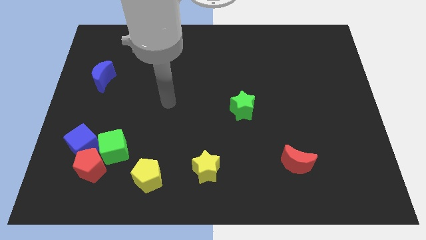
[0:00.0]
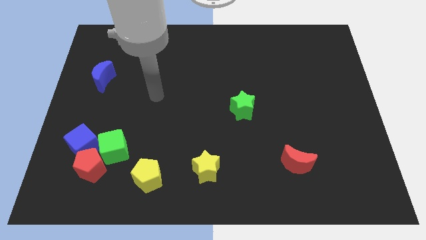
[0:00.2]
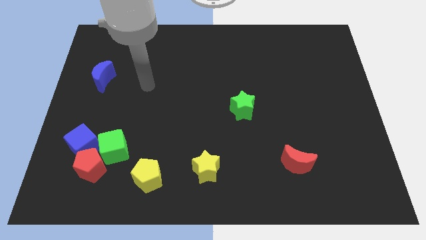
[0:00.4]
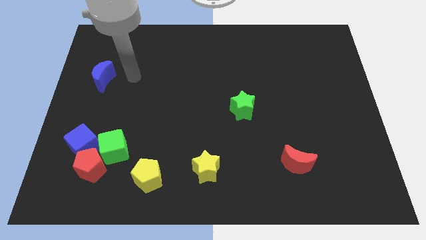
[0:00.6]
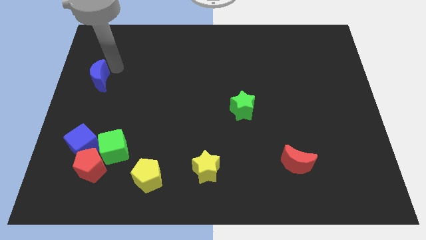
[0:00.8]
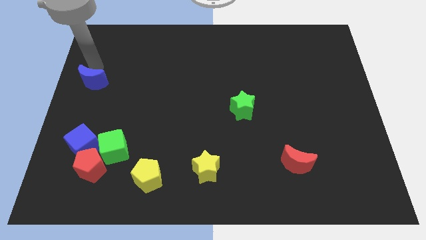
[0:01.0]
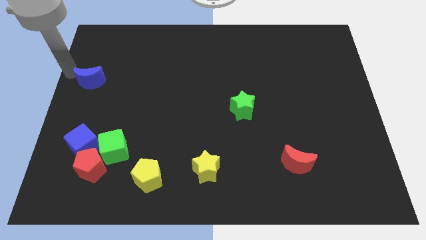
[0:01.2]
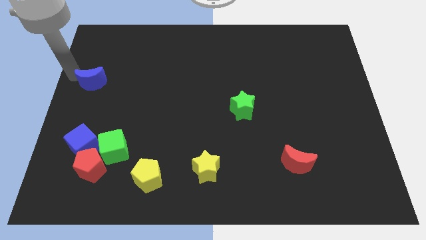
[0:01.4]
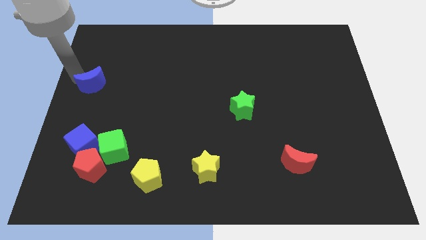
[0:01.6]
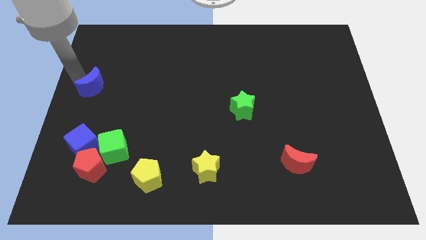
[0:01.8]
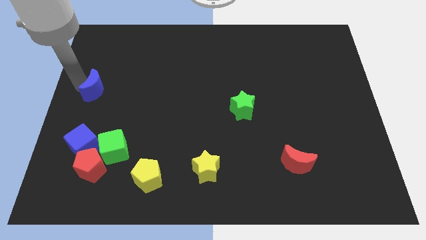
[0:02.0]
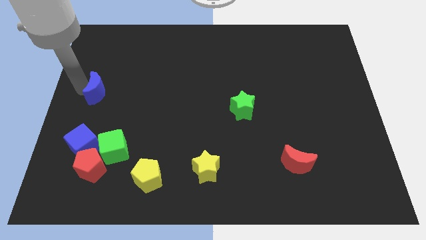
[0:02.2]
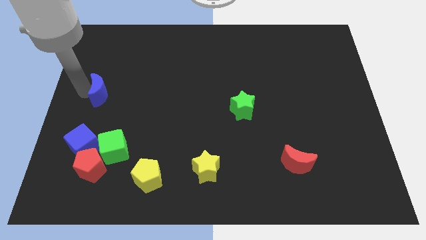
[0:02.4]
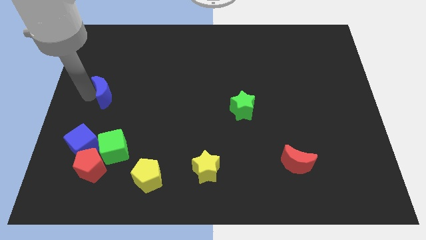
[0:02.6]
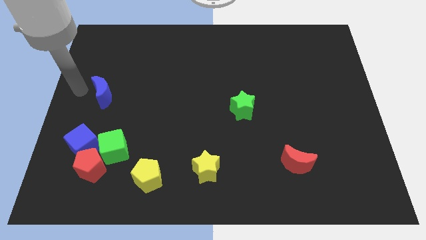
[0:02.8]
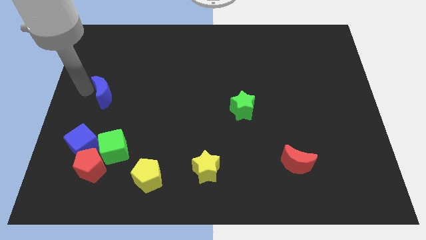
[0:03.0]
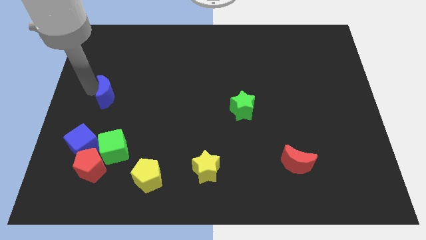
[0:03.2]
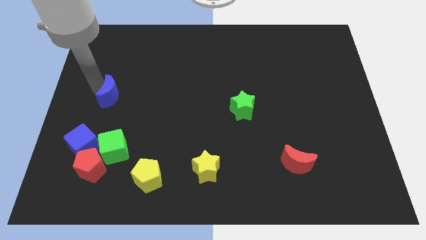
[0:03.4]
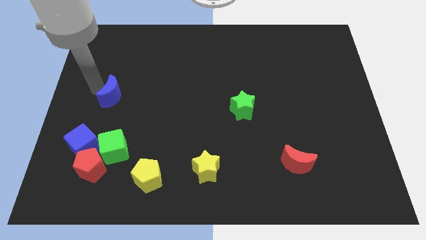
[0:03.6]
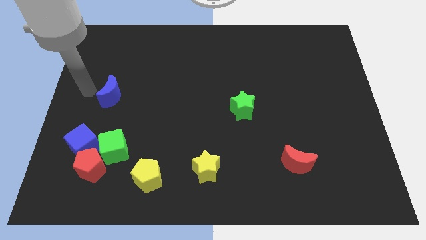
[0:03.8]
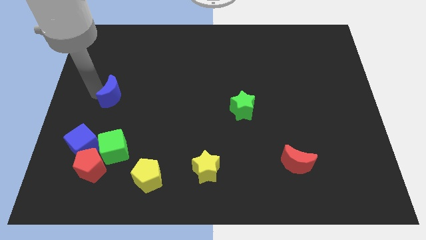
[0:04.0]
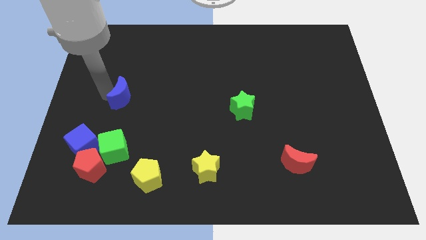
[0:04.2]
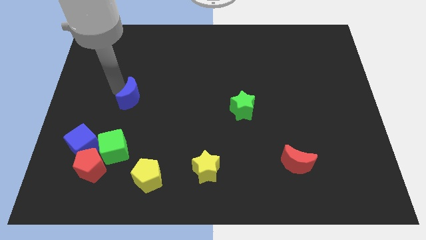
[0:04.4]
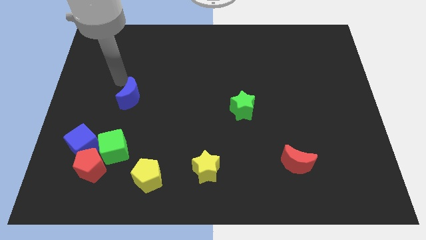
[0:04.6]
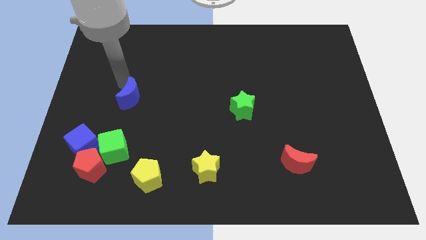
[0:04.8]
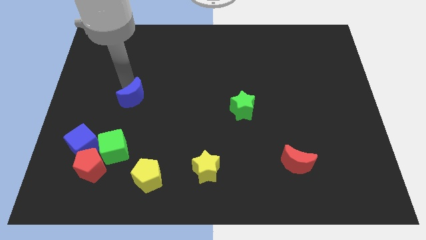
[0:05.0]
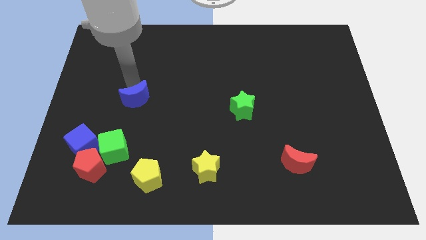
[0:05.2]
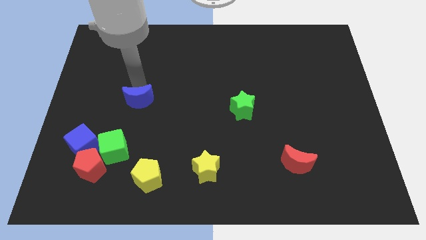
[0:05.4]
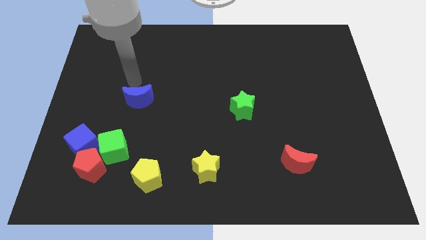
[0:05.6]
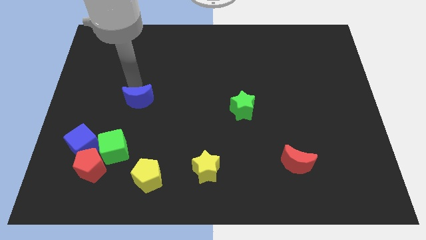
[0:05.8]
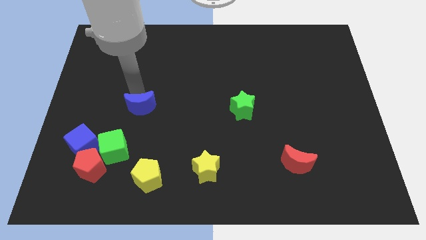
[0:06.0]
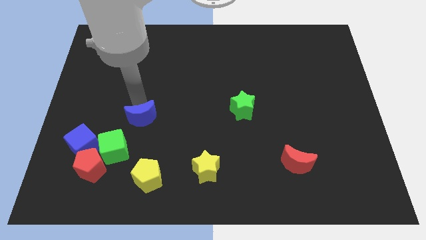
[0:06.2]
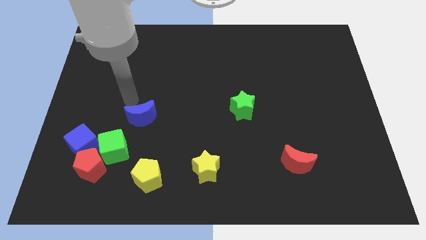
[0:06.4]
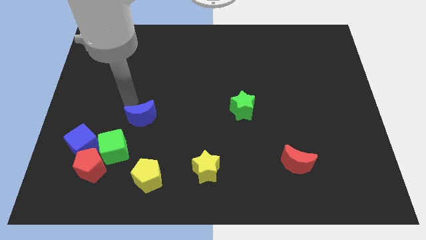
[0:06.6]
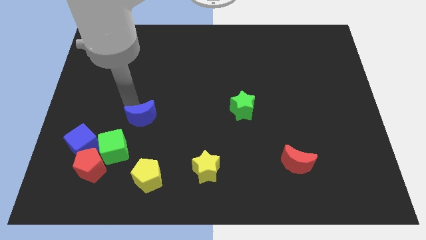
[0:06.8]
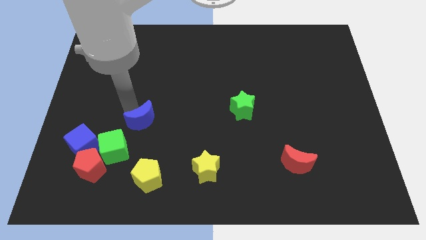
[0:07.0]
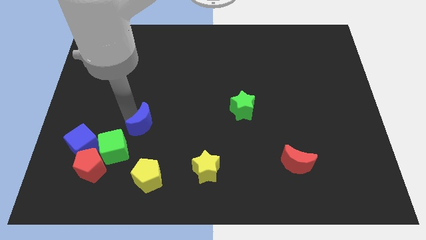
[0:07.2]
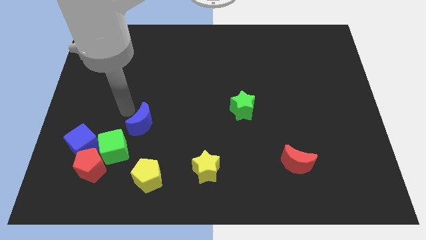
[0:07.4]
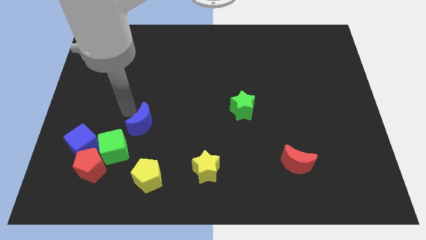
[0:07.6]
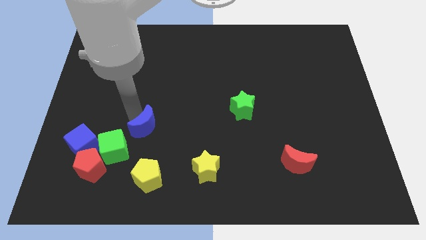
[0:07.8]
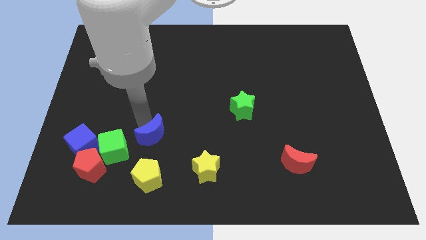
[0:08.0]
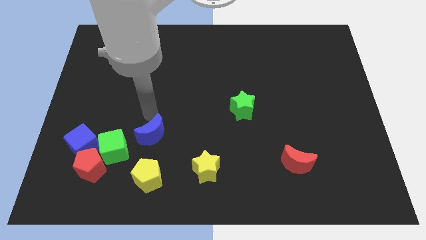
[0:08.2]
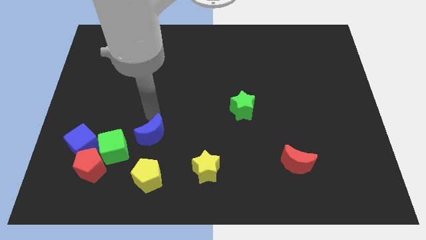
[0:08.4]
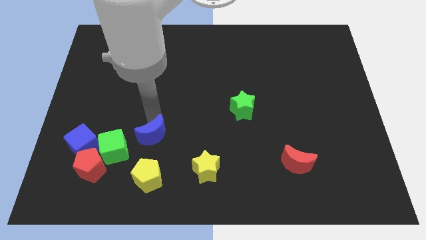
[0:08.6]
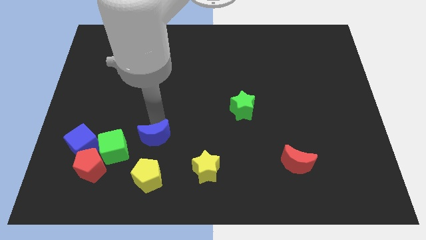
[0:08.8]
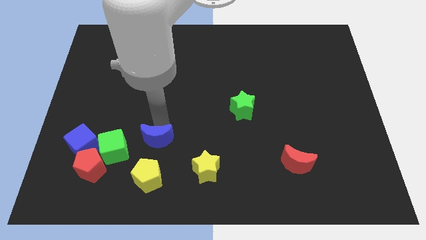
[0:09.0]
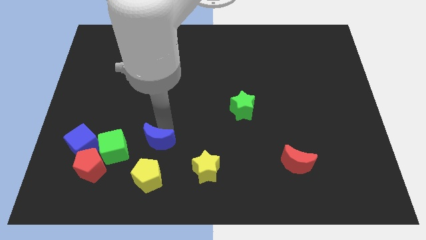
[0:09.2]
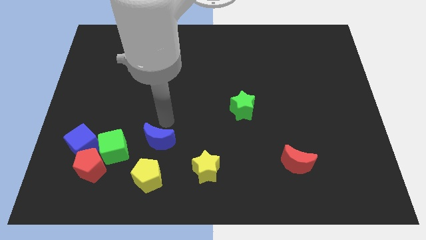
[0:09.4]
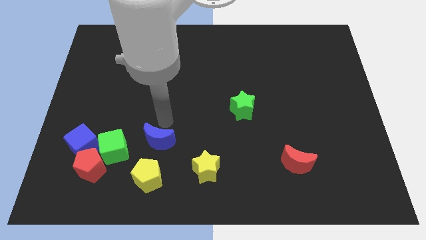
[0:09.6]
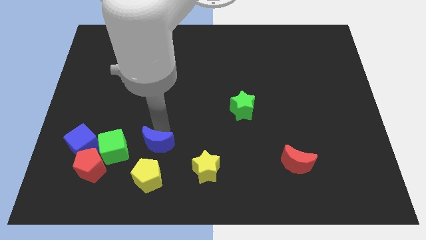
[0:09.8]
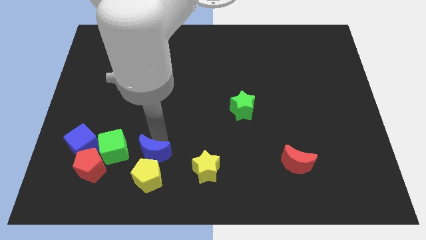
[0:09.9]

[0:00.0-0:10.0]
move the blue moon next to the yellow pentagon

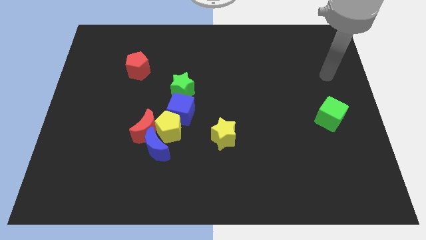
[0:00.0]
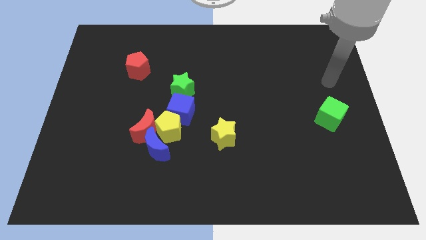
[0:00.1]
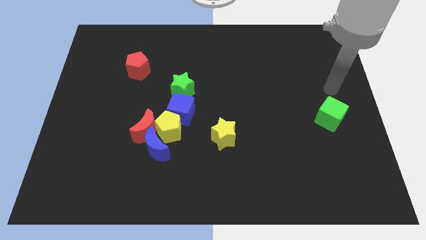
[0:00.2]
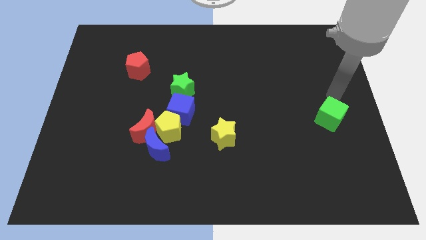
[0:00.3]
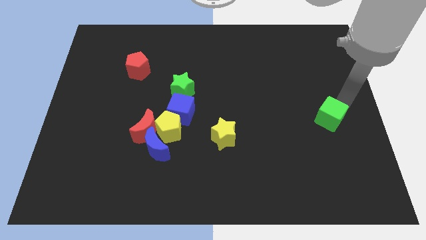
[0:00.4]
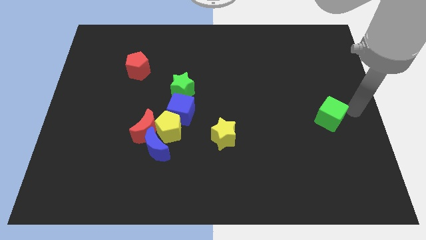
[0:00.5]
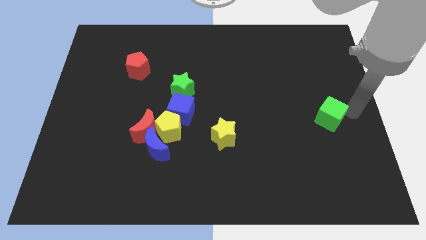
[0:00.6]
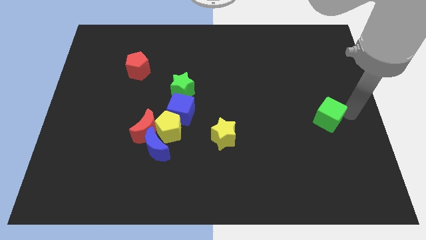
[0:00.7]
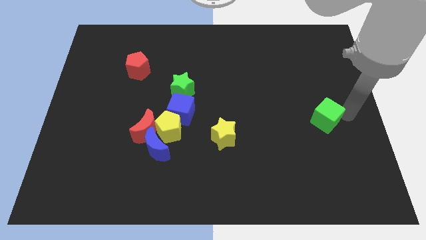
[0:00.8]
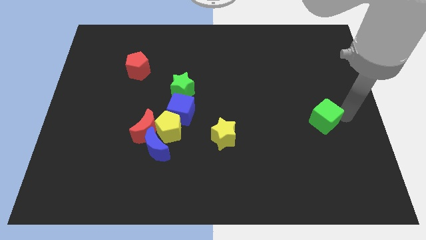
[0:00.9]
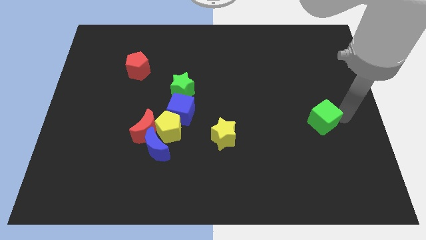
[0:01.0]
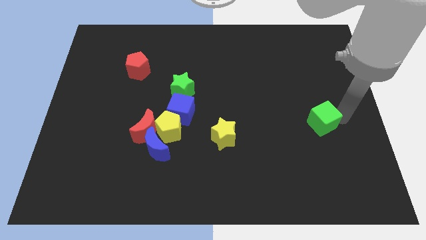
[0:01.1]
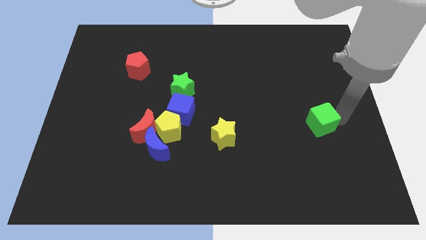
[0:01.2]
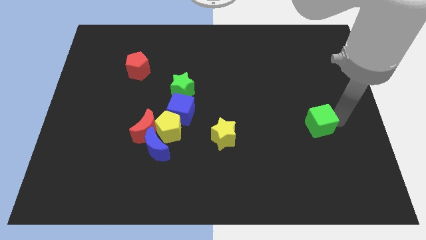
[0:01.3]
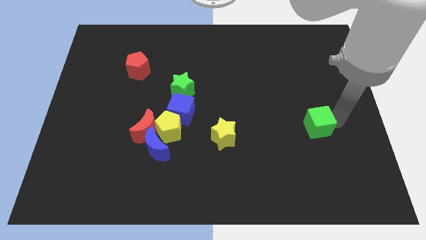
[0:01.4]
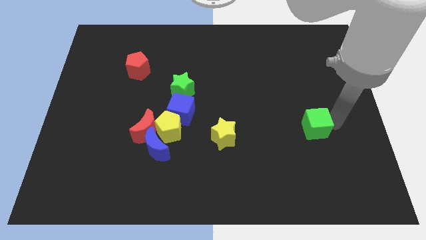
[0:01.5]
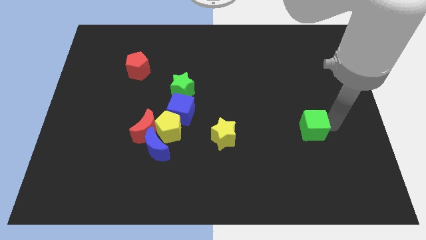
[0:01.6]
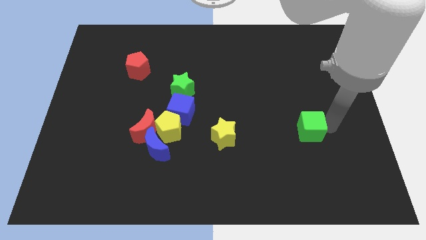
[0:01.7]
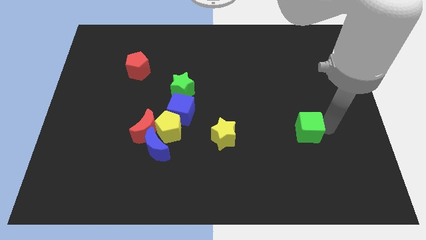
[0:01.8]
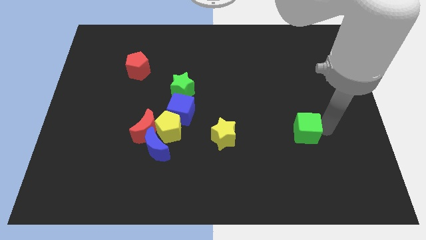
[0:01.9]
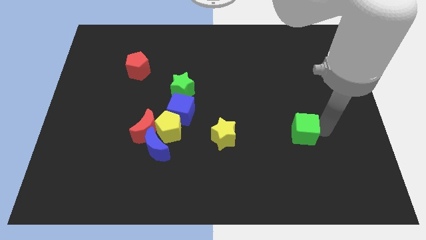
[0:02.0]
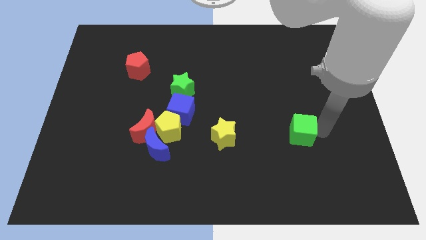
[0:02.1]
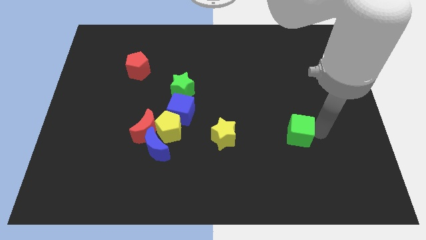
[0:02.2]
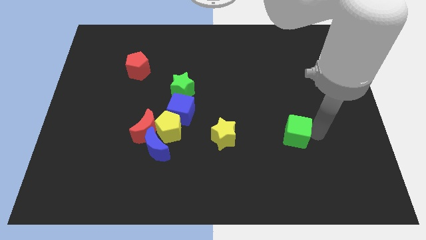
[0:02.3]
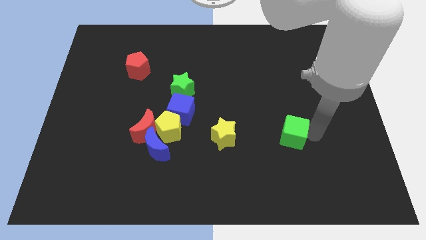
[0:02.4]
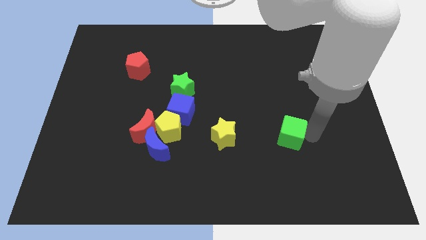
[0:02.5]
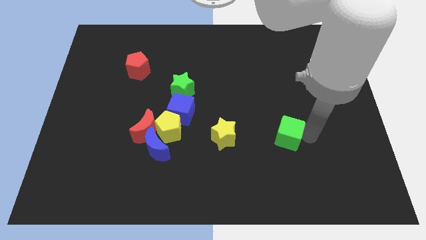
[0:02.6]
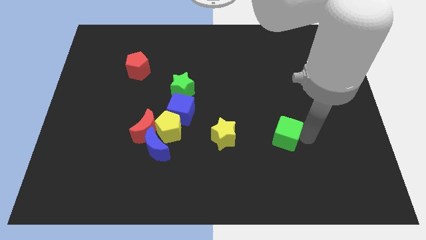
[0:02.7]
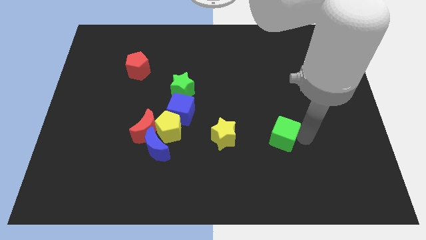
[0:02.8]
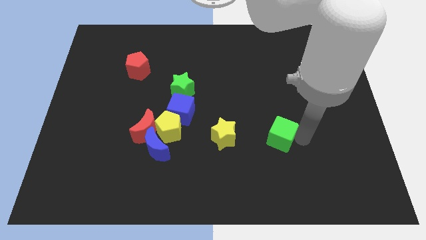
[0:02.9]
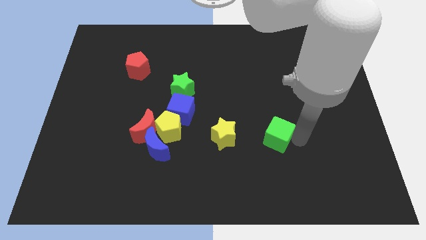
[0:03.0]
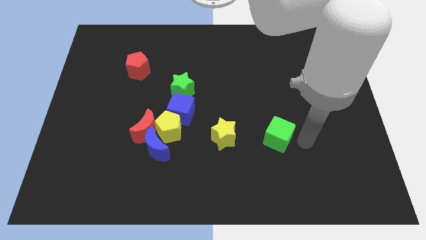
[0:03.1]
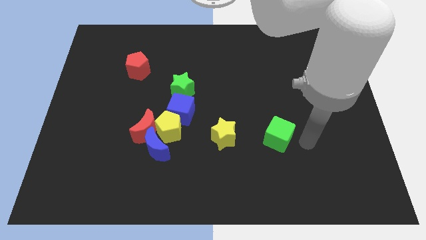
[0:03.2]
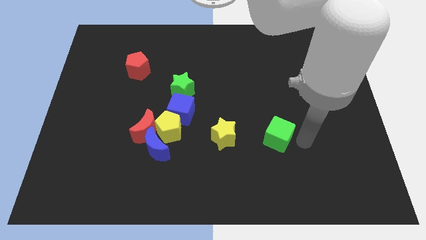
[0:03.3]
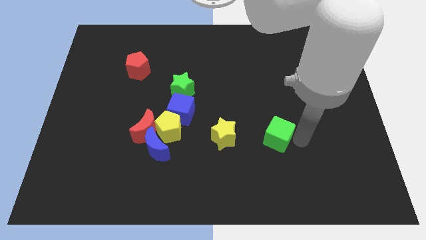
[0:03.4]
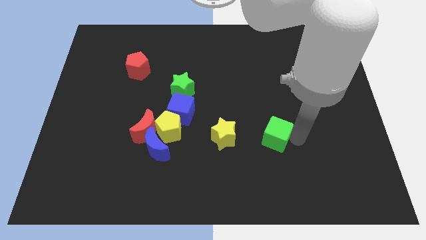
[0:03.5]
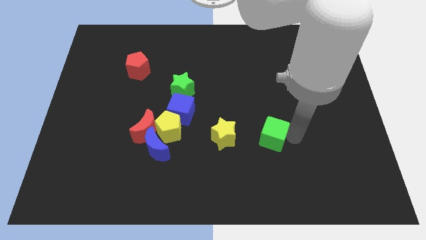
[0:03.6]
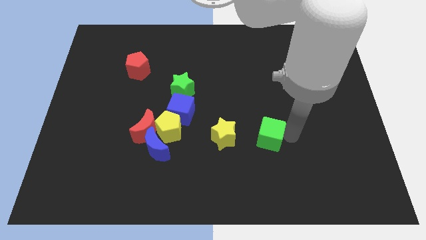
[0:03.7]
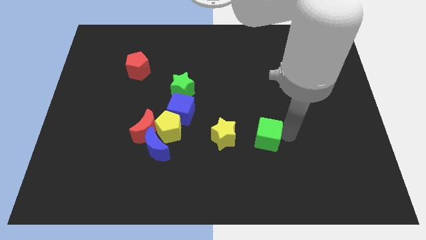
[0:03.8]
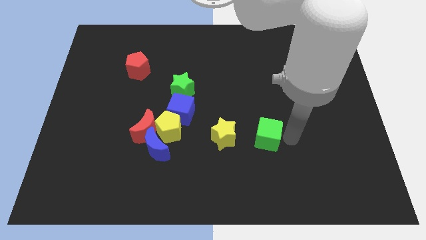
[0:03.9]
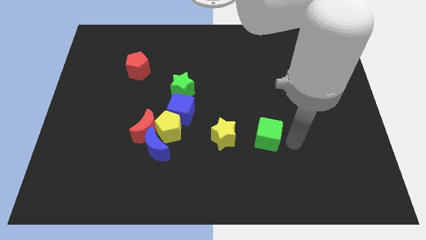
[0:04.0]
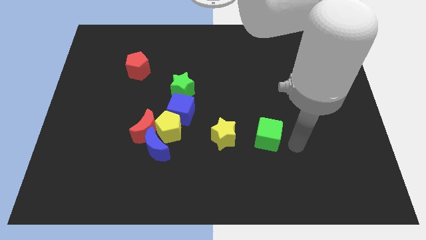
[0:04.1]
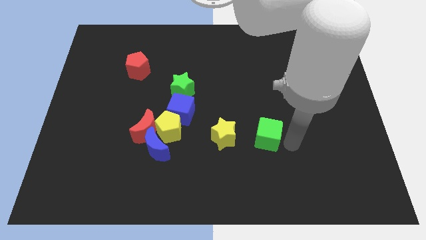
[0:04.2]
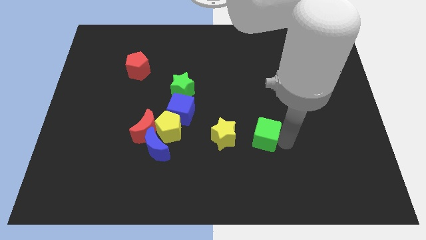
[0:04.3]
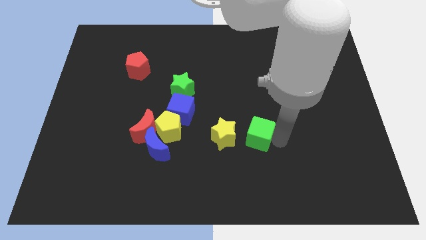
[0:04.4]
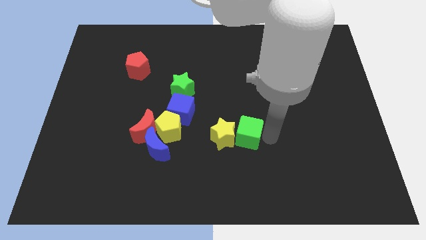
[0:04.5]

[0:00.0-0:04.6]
push the green cube towards the yellow star
